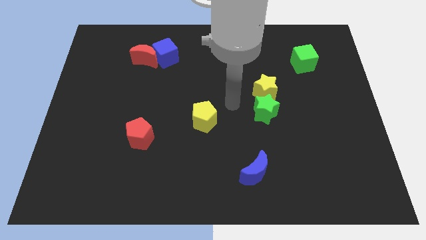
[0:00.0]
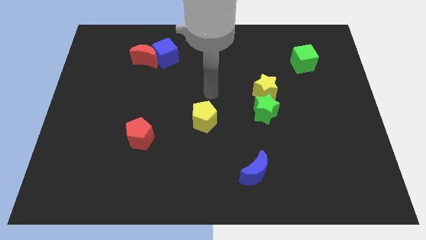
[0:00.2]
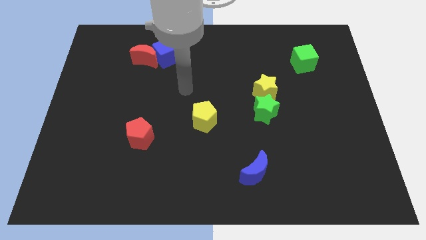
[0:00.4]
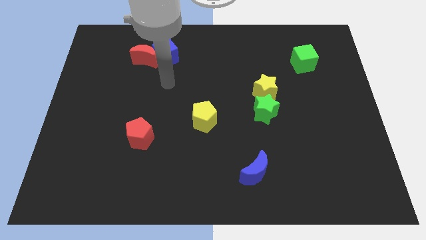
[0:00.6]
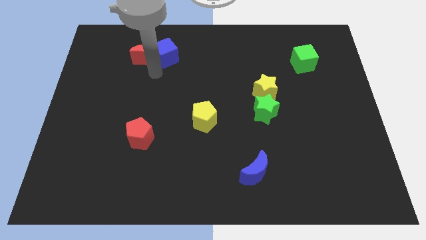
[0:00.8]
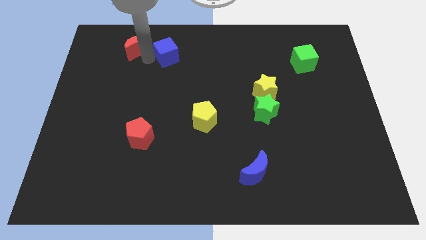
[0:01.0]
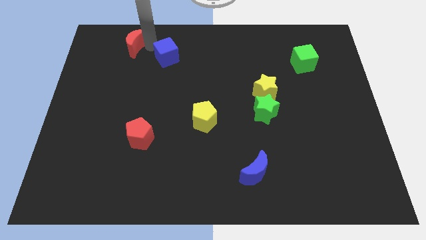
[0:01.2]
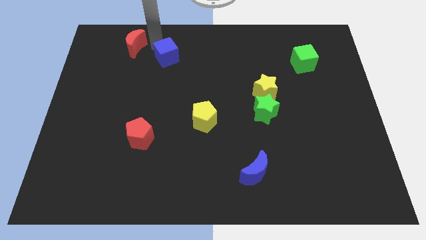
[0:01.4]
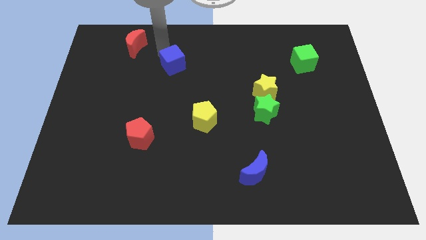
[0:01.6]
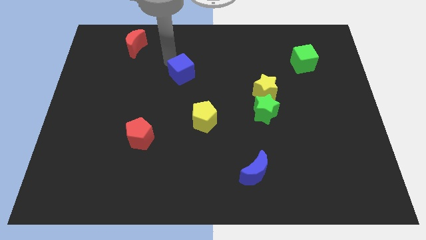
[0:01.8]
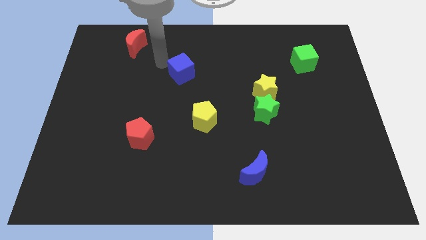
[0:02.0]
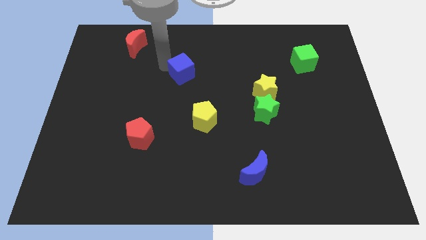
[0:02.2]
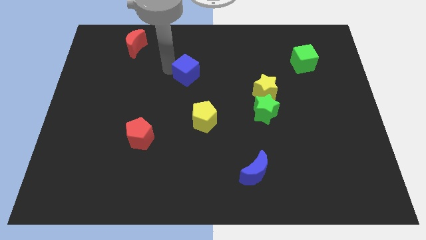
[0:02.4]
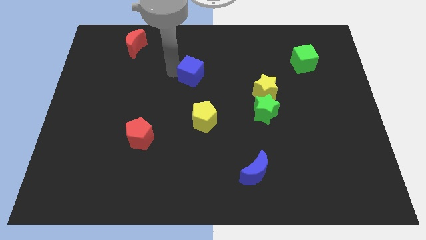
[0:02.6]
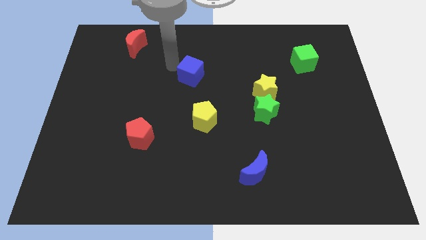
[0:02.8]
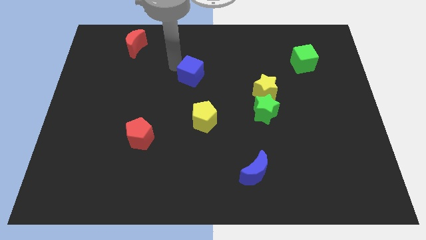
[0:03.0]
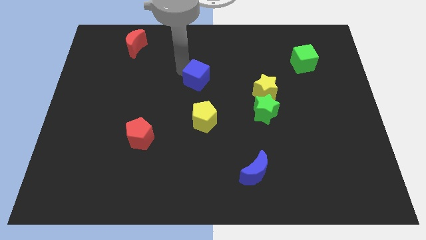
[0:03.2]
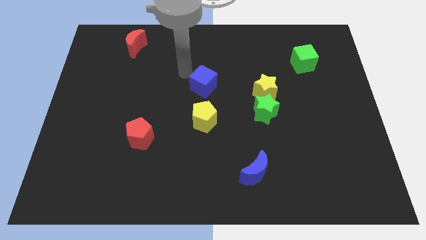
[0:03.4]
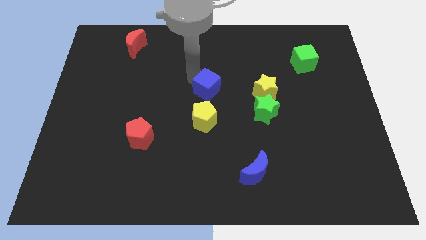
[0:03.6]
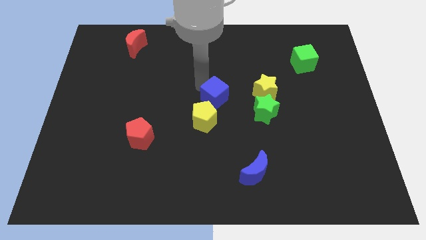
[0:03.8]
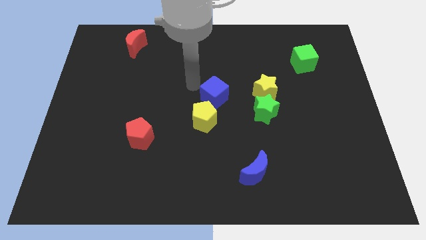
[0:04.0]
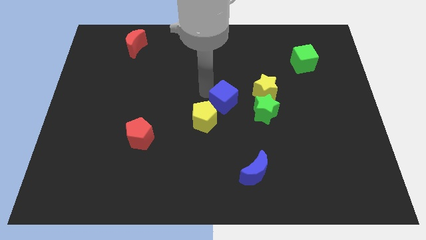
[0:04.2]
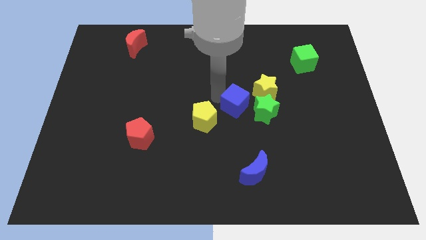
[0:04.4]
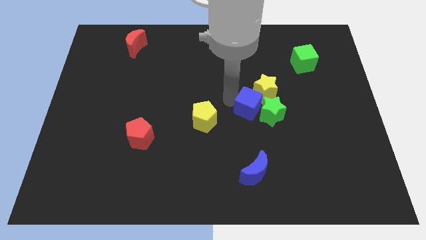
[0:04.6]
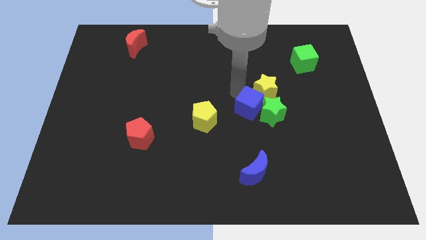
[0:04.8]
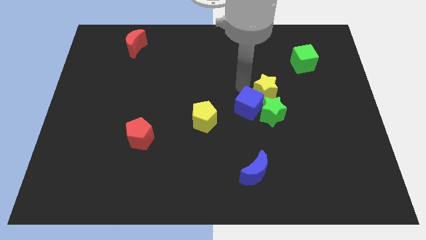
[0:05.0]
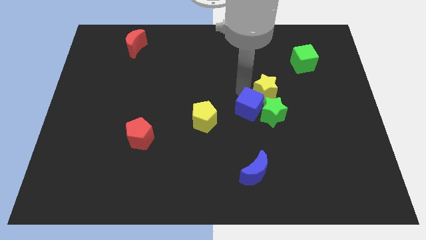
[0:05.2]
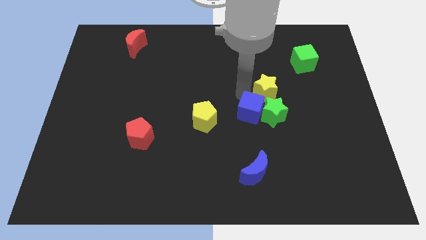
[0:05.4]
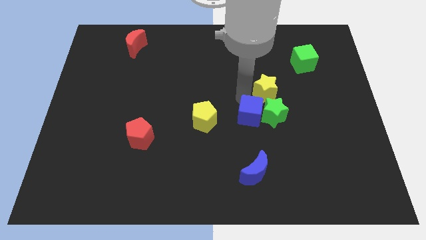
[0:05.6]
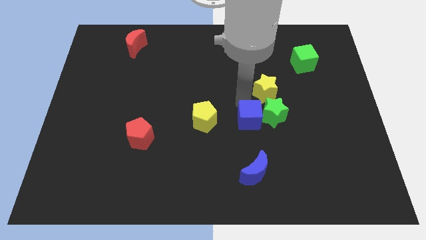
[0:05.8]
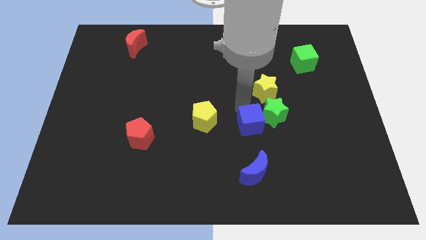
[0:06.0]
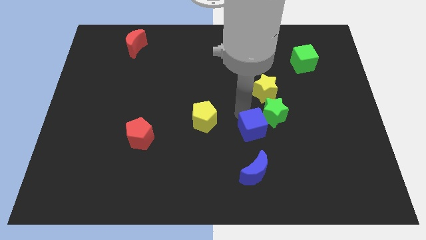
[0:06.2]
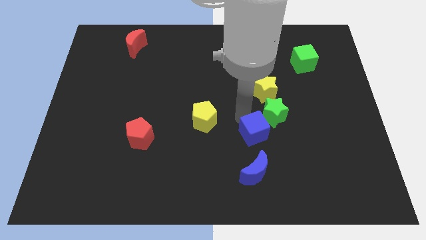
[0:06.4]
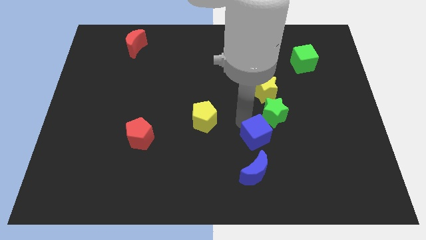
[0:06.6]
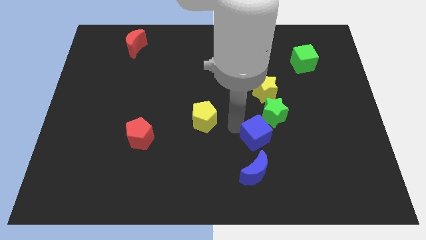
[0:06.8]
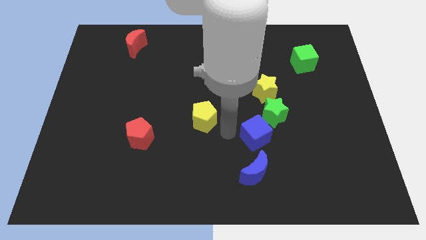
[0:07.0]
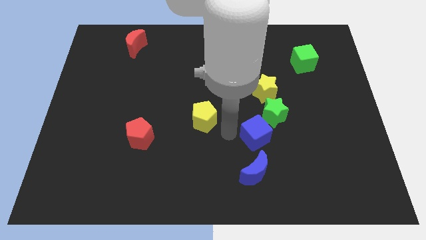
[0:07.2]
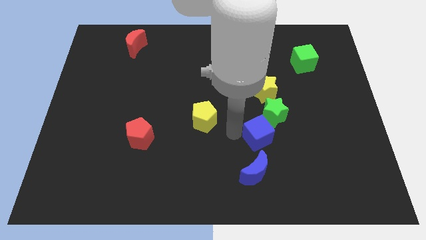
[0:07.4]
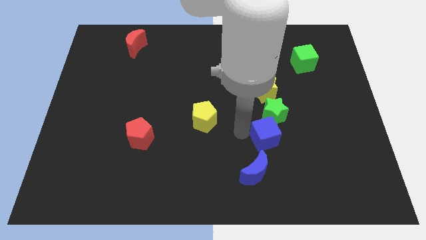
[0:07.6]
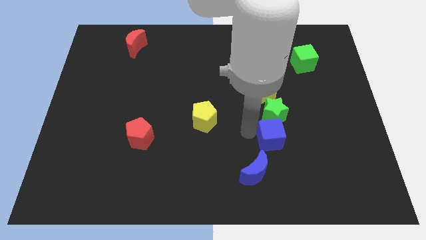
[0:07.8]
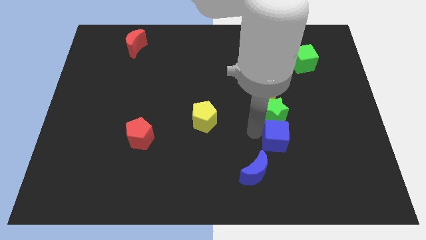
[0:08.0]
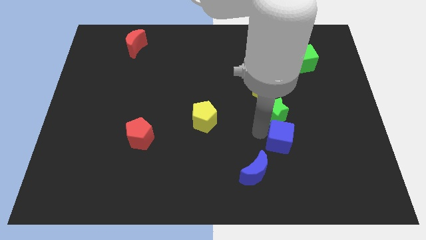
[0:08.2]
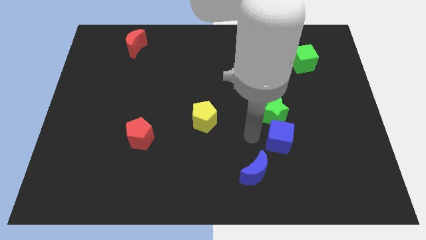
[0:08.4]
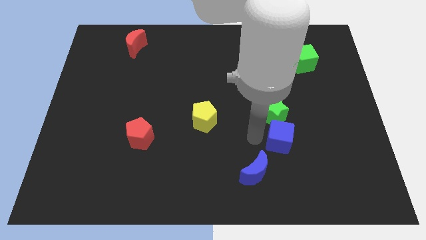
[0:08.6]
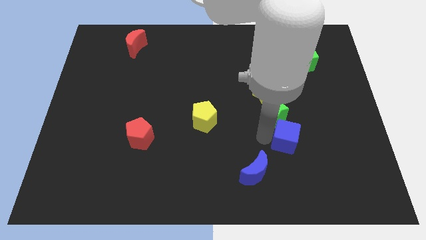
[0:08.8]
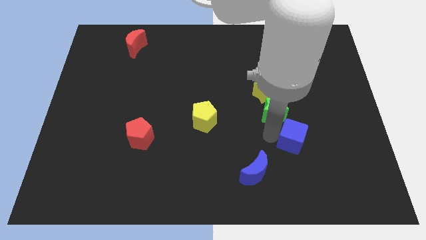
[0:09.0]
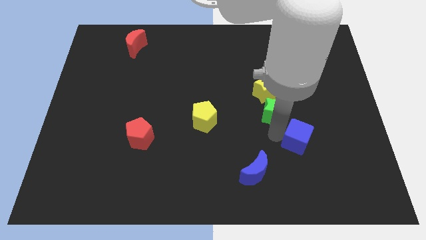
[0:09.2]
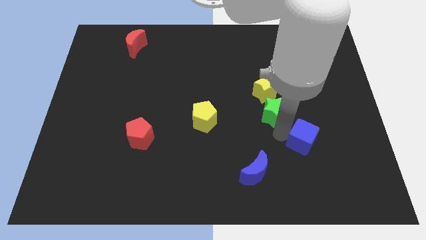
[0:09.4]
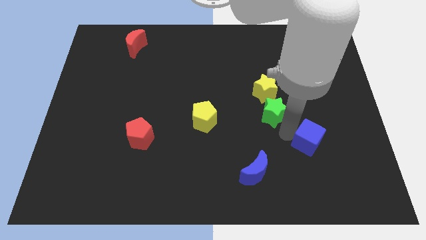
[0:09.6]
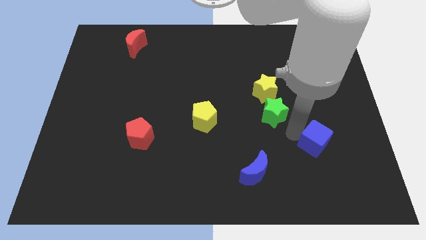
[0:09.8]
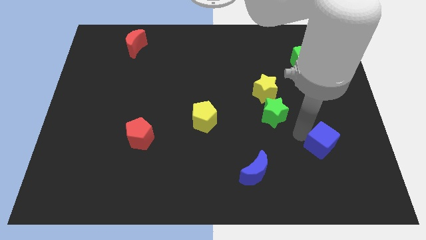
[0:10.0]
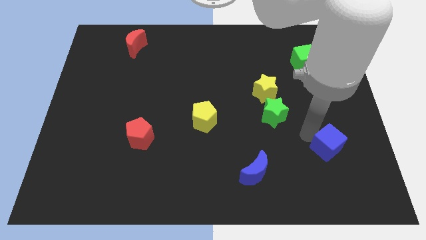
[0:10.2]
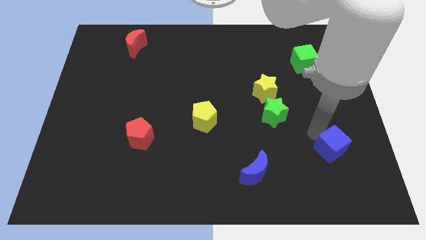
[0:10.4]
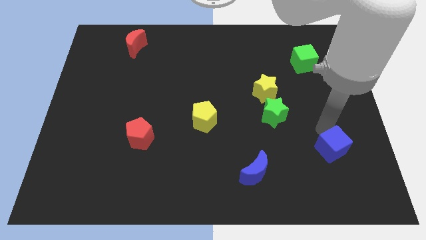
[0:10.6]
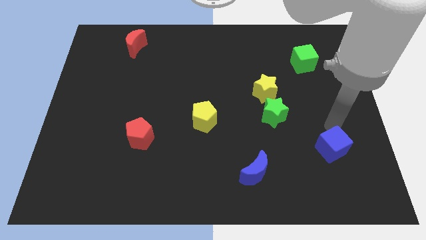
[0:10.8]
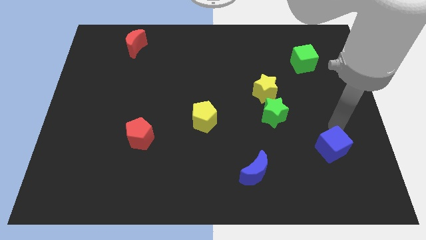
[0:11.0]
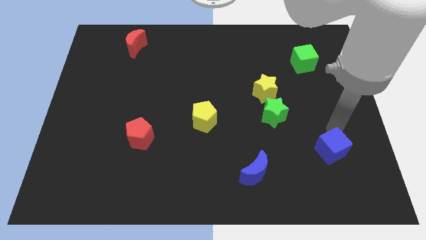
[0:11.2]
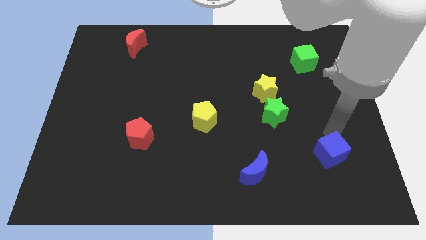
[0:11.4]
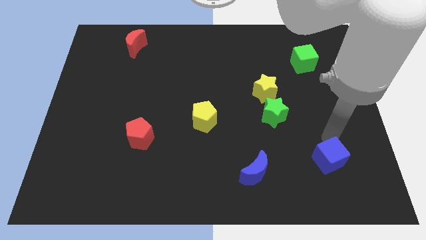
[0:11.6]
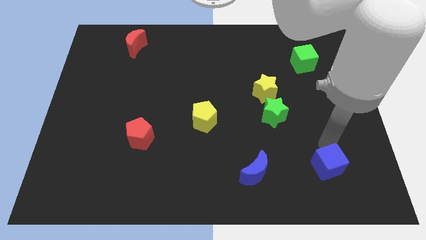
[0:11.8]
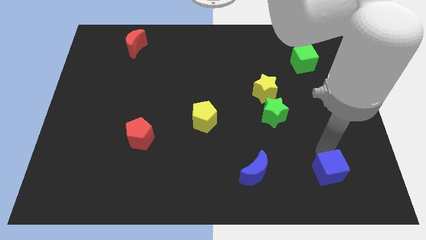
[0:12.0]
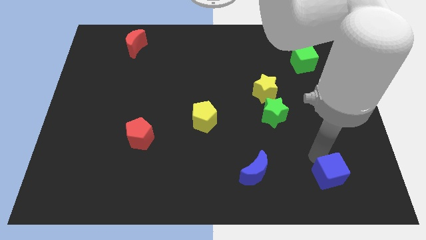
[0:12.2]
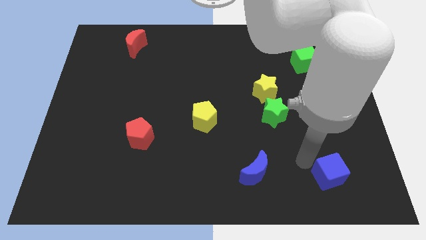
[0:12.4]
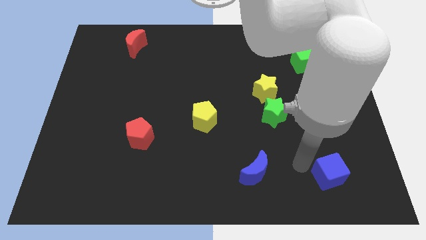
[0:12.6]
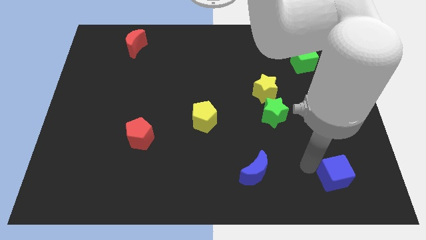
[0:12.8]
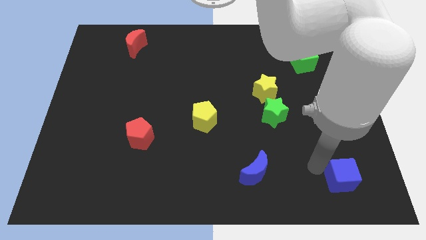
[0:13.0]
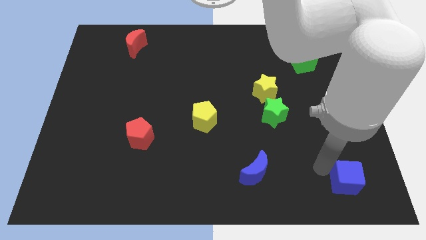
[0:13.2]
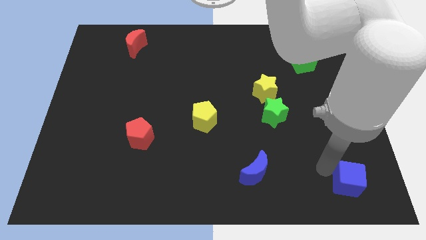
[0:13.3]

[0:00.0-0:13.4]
move the blue cube to the lower right corner
